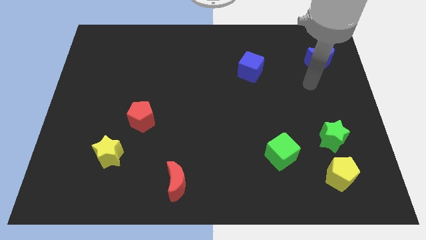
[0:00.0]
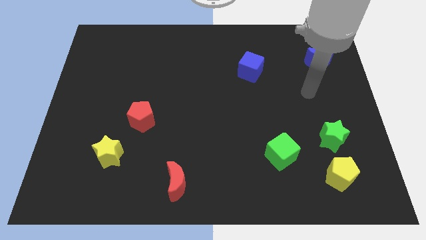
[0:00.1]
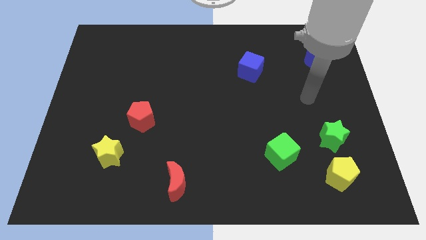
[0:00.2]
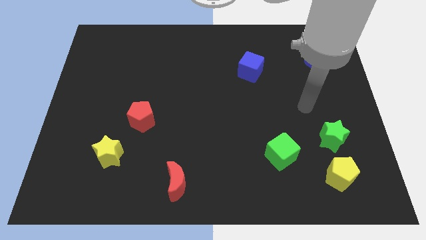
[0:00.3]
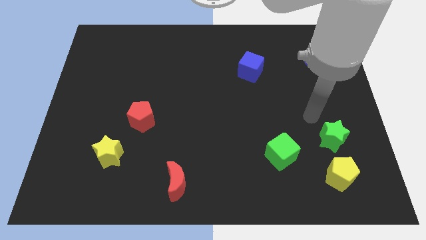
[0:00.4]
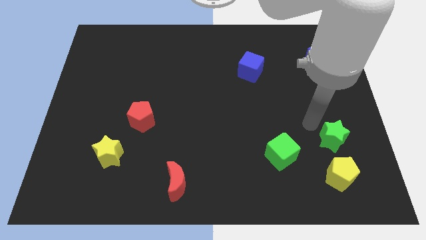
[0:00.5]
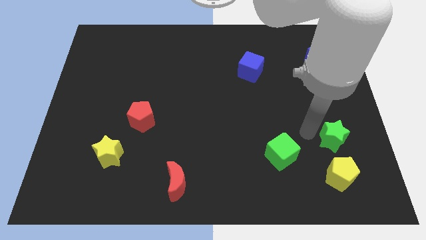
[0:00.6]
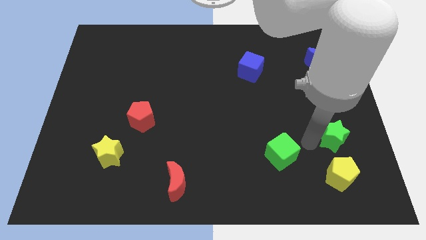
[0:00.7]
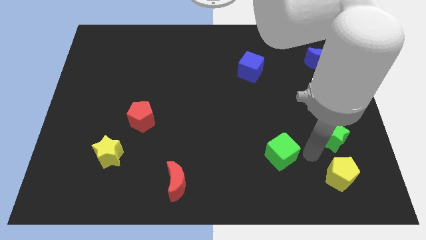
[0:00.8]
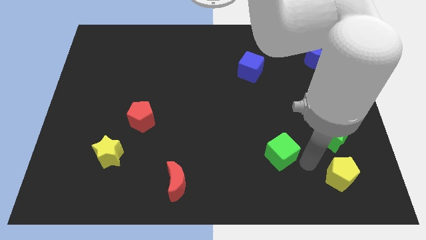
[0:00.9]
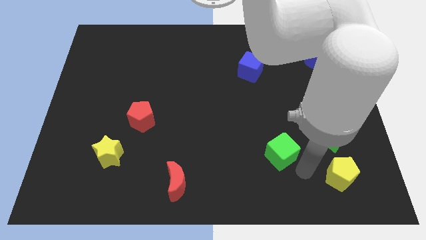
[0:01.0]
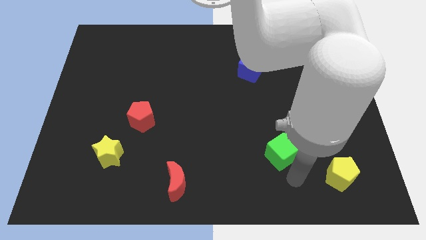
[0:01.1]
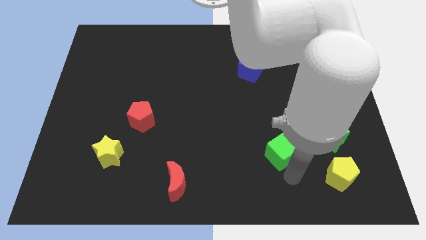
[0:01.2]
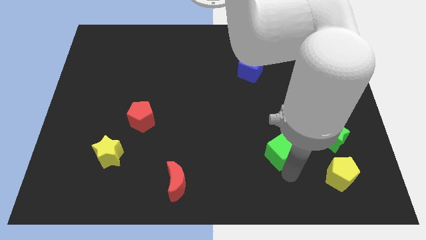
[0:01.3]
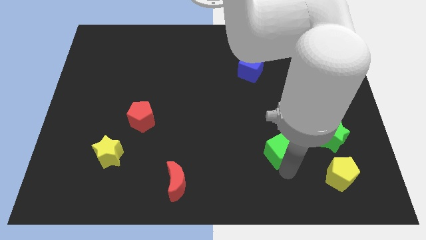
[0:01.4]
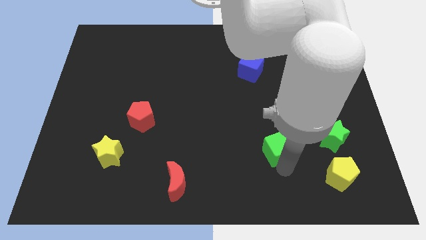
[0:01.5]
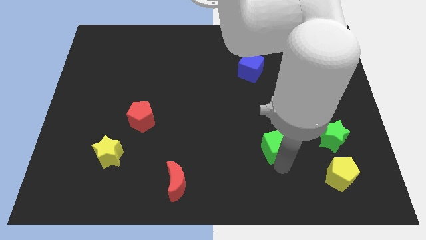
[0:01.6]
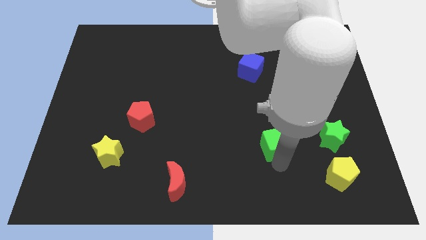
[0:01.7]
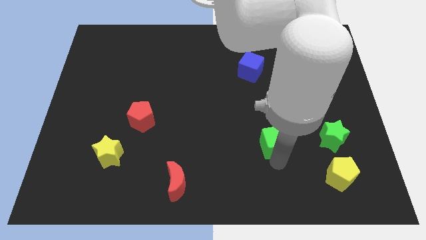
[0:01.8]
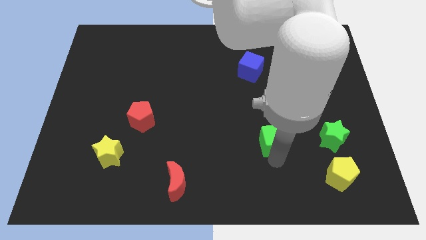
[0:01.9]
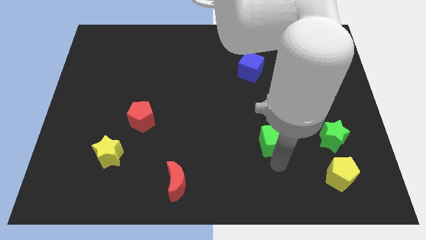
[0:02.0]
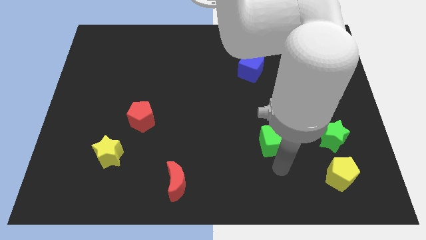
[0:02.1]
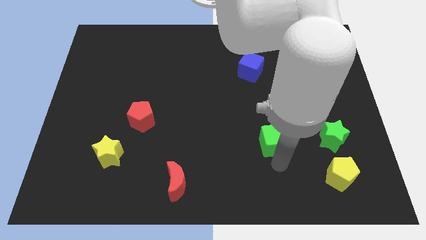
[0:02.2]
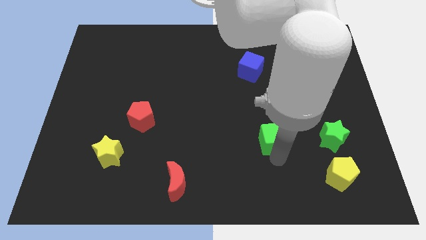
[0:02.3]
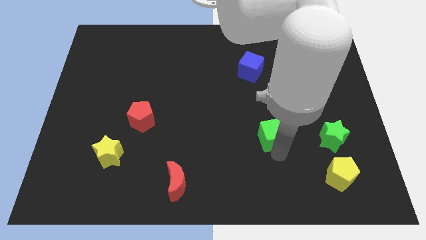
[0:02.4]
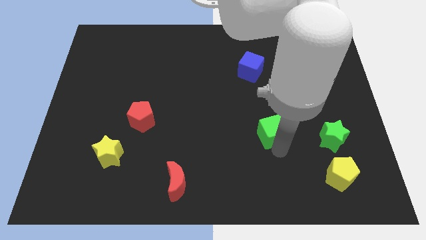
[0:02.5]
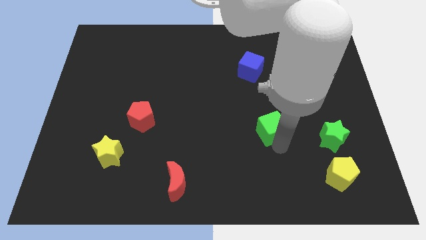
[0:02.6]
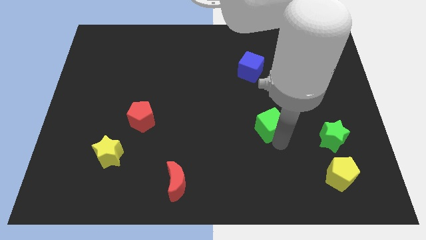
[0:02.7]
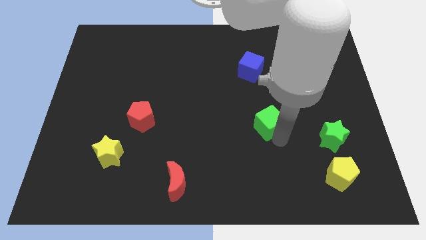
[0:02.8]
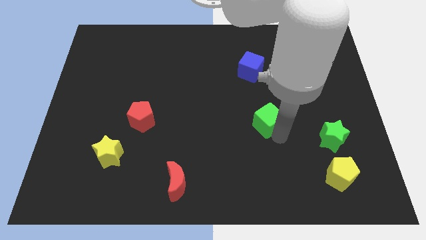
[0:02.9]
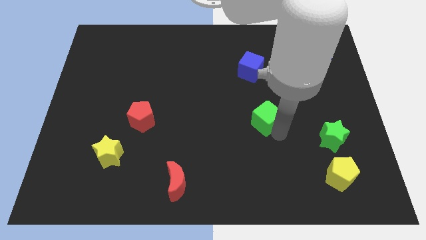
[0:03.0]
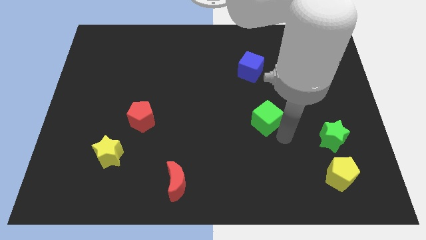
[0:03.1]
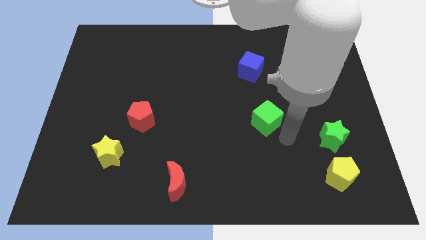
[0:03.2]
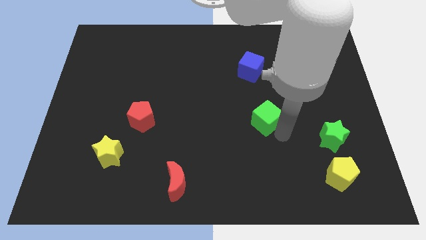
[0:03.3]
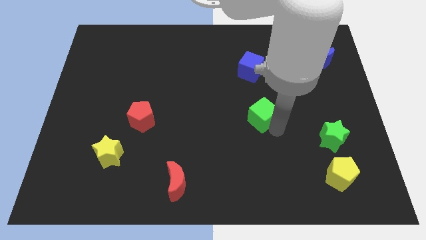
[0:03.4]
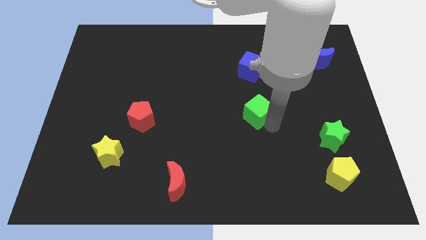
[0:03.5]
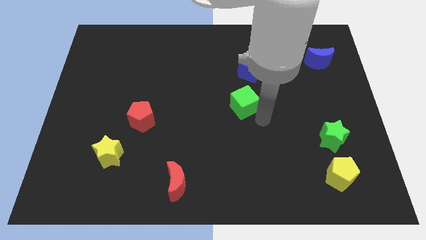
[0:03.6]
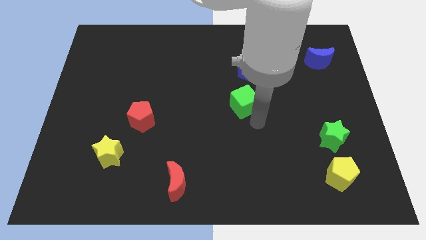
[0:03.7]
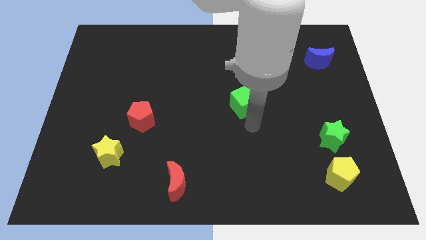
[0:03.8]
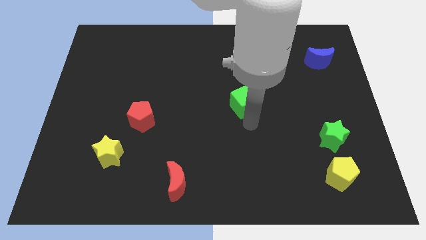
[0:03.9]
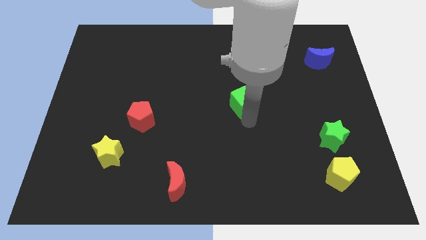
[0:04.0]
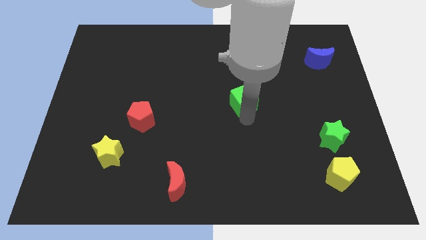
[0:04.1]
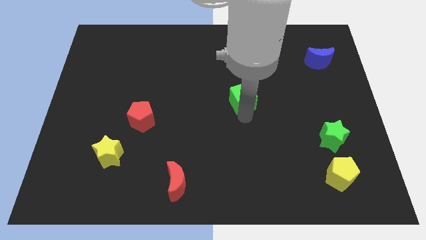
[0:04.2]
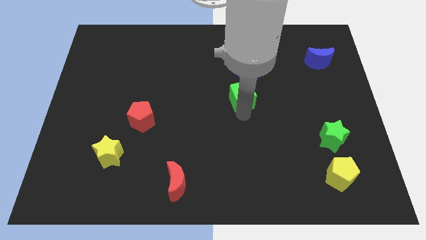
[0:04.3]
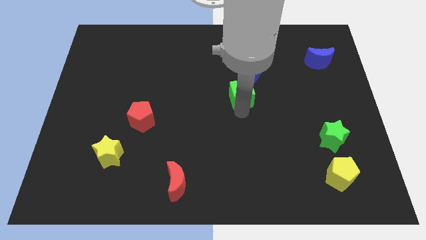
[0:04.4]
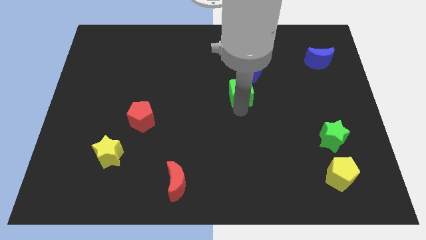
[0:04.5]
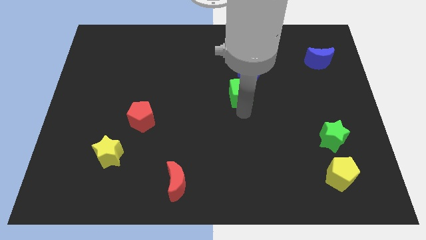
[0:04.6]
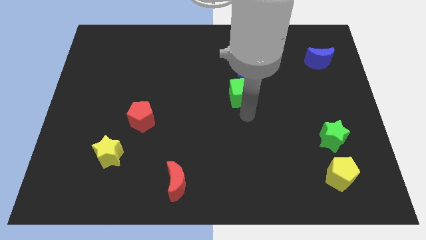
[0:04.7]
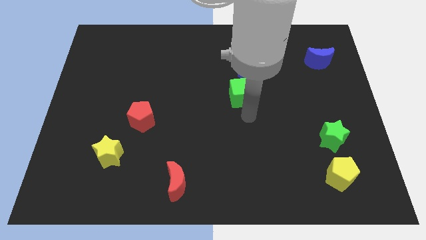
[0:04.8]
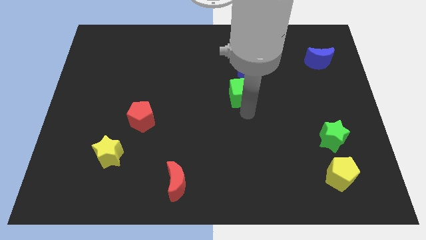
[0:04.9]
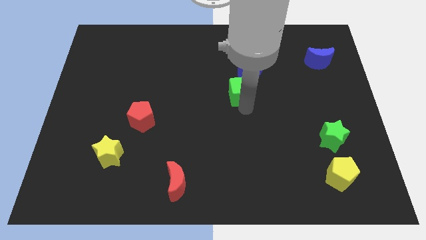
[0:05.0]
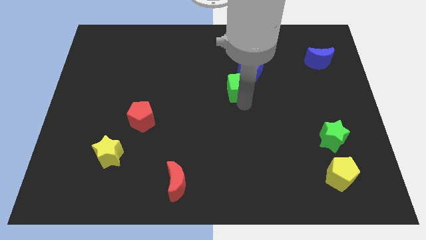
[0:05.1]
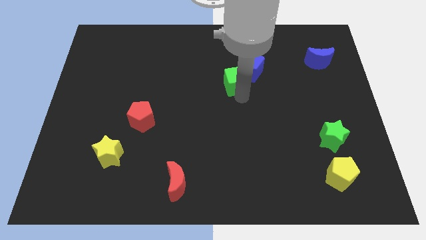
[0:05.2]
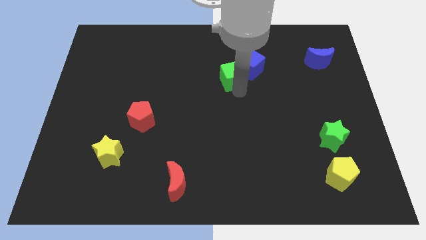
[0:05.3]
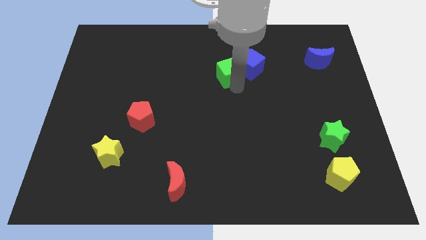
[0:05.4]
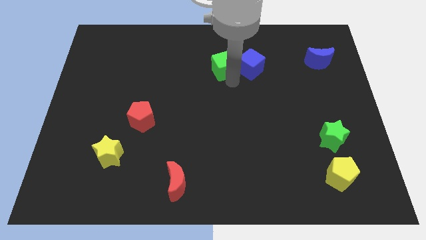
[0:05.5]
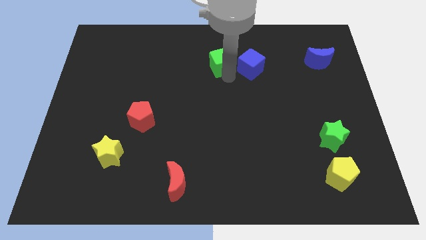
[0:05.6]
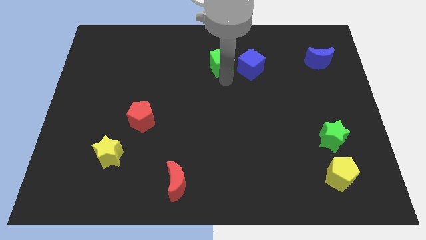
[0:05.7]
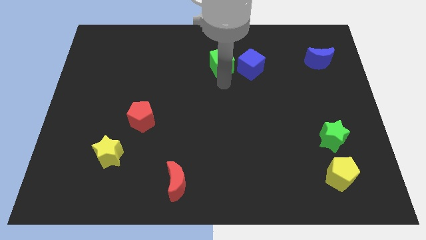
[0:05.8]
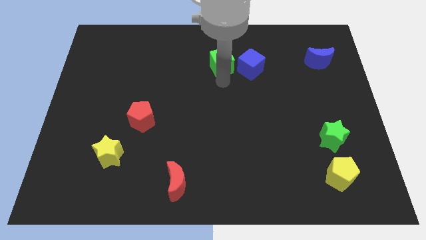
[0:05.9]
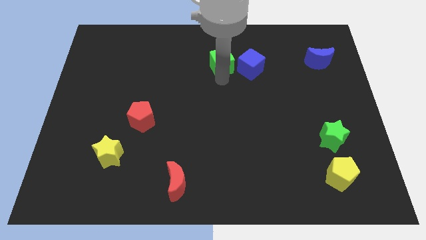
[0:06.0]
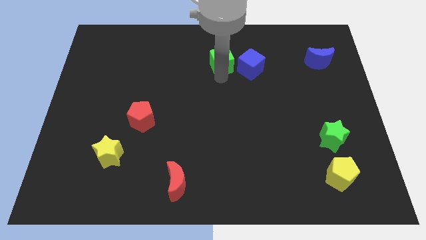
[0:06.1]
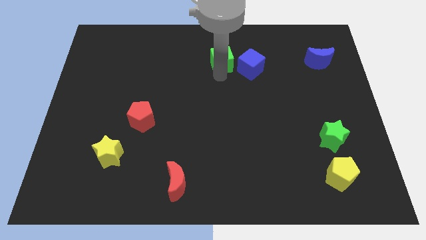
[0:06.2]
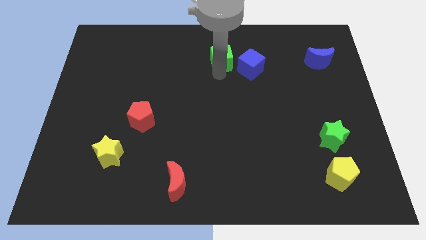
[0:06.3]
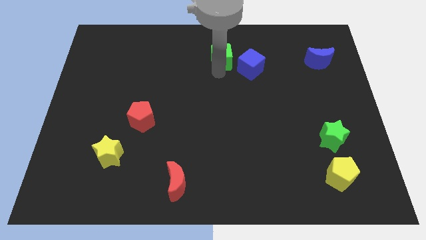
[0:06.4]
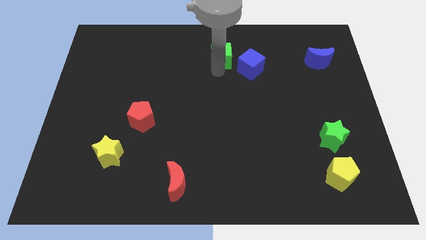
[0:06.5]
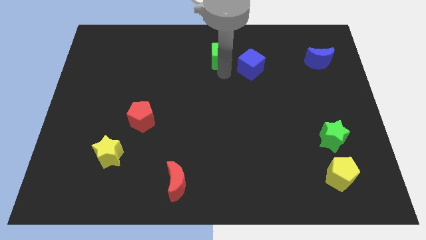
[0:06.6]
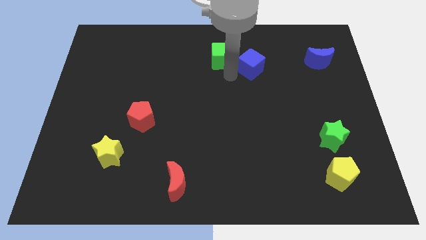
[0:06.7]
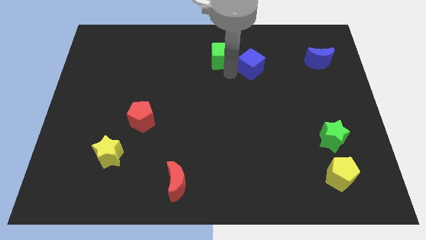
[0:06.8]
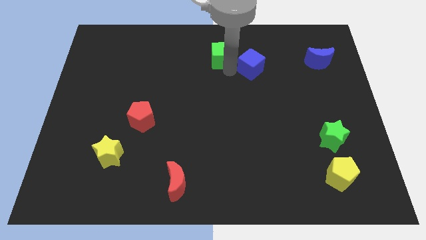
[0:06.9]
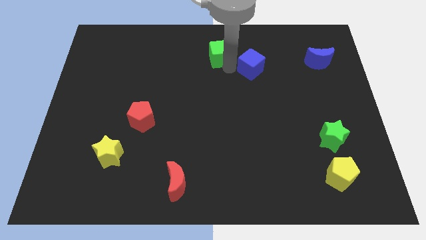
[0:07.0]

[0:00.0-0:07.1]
move the green cube to the towards your base
